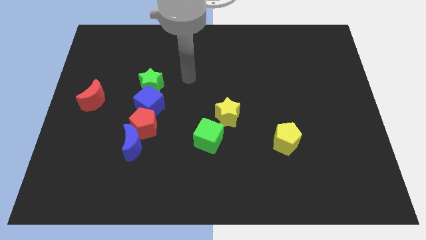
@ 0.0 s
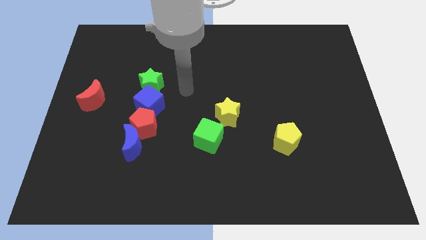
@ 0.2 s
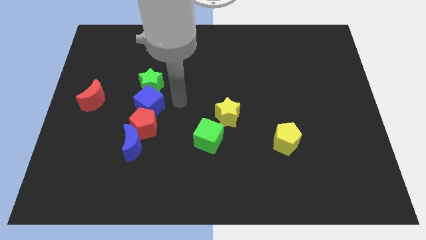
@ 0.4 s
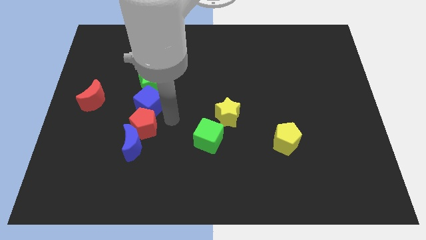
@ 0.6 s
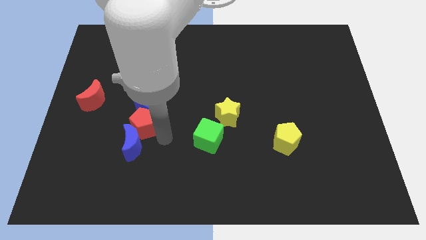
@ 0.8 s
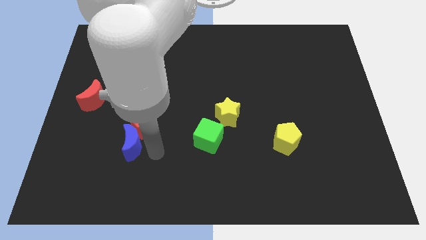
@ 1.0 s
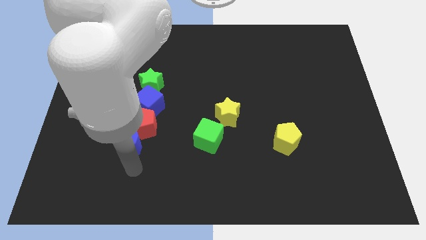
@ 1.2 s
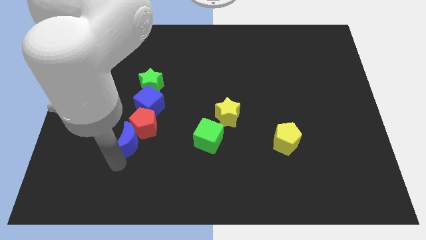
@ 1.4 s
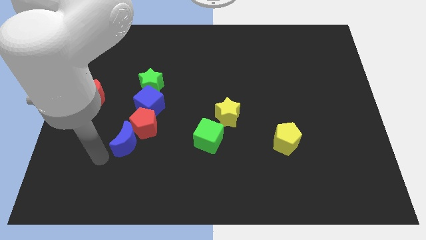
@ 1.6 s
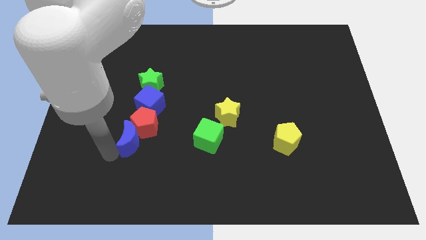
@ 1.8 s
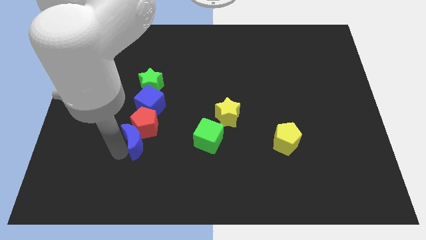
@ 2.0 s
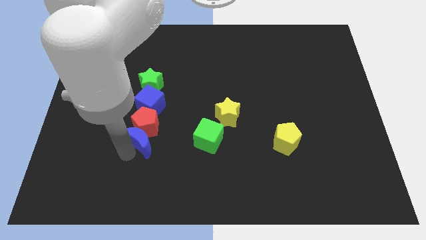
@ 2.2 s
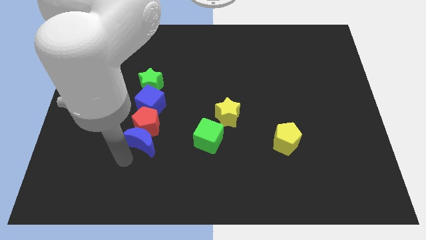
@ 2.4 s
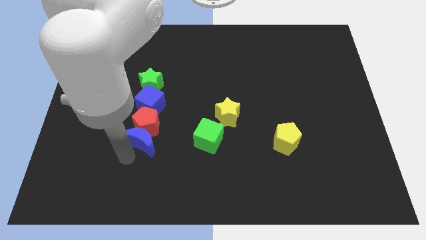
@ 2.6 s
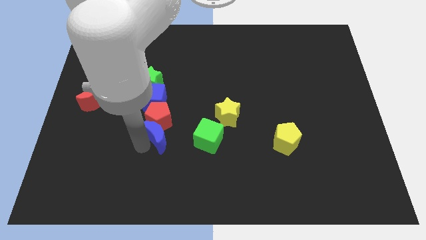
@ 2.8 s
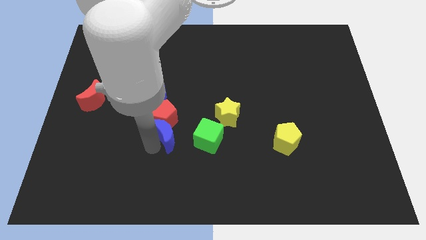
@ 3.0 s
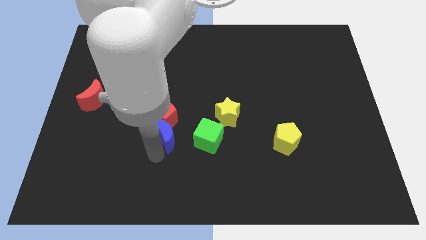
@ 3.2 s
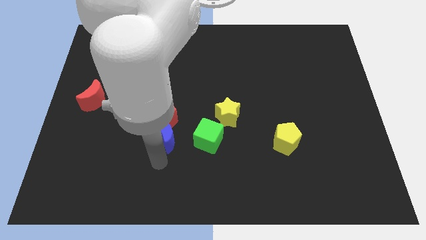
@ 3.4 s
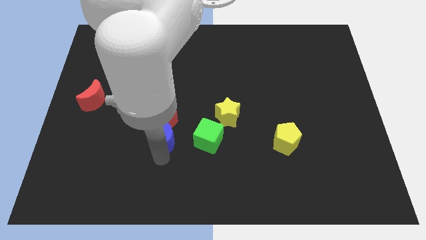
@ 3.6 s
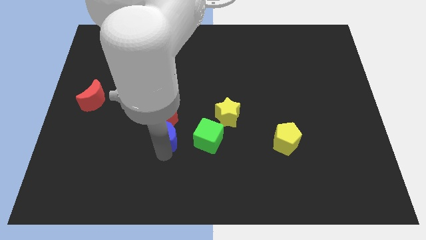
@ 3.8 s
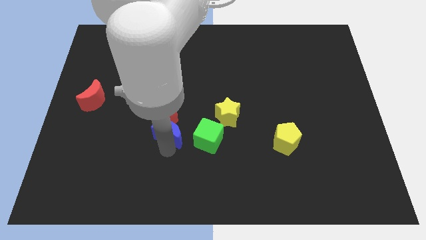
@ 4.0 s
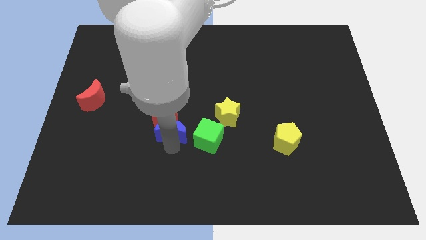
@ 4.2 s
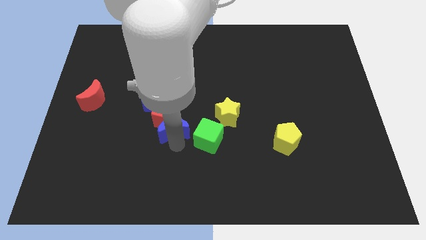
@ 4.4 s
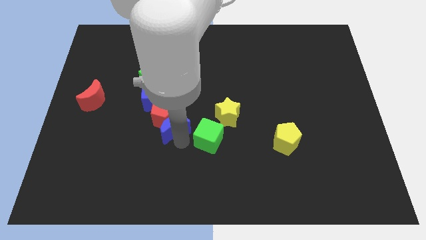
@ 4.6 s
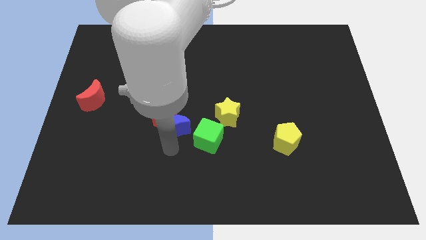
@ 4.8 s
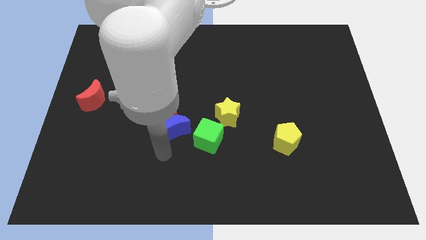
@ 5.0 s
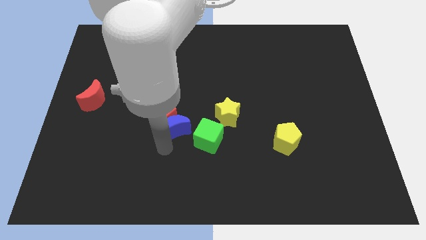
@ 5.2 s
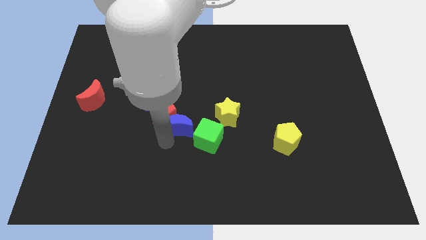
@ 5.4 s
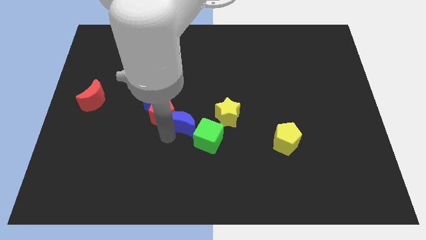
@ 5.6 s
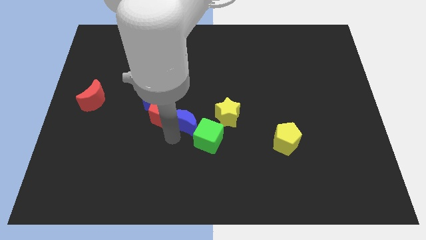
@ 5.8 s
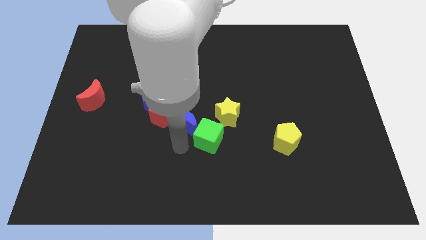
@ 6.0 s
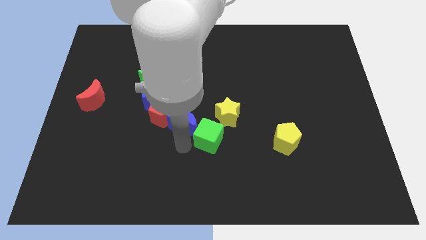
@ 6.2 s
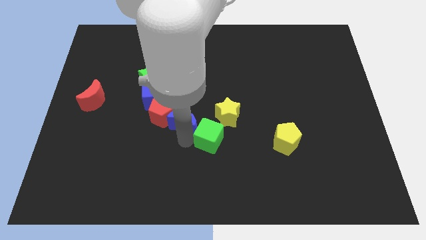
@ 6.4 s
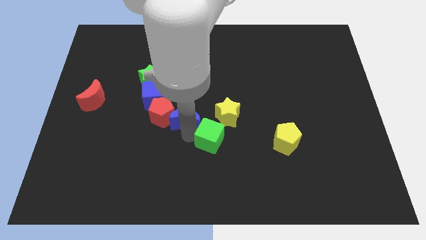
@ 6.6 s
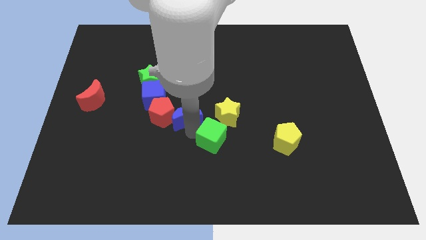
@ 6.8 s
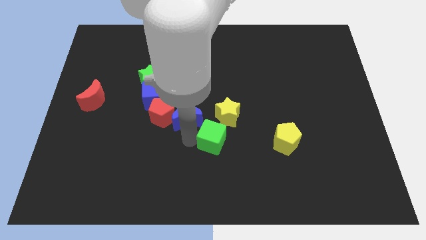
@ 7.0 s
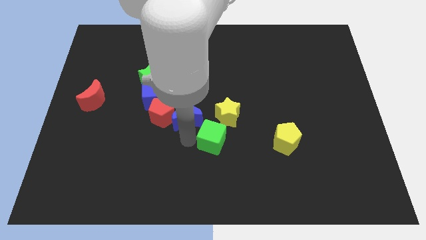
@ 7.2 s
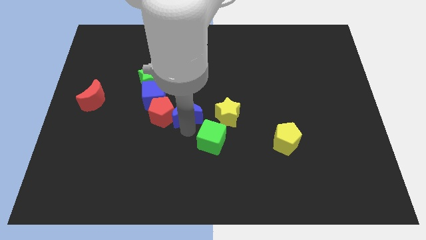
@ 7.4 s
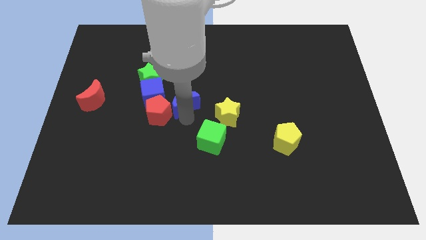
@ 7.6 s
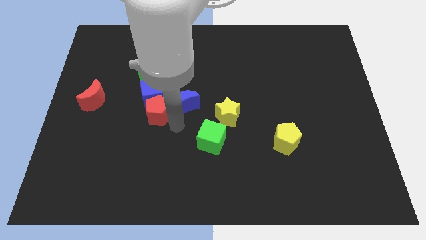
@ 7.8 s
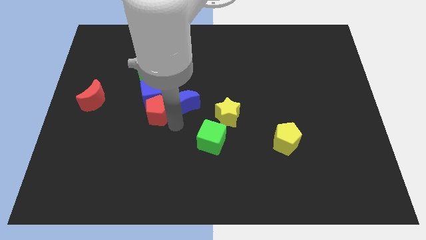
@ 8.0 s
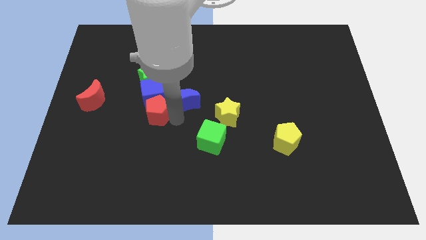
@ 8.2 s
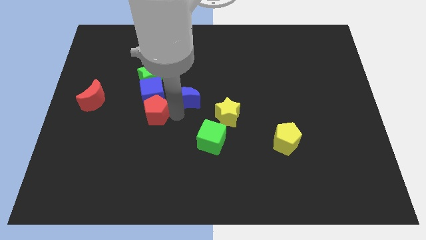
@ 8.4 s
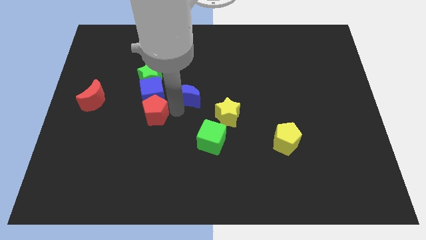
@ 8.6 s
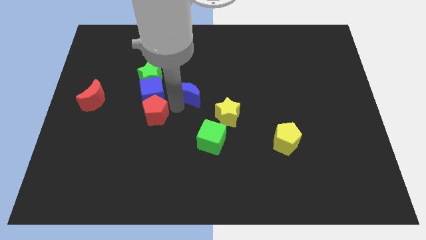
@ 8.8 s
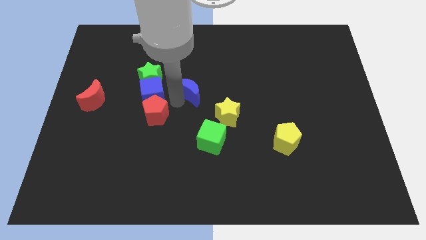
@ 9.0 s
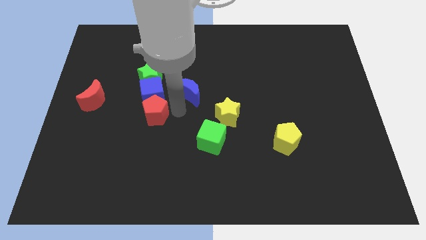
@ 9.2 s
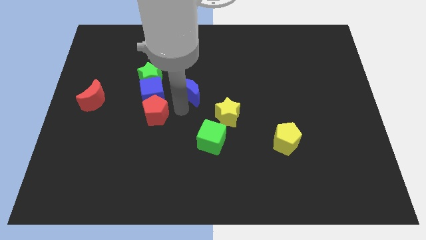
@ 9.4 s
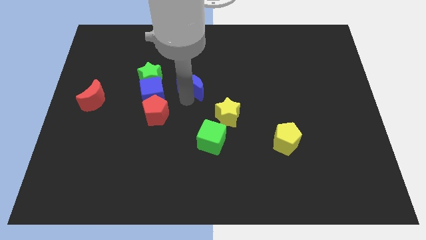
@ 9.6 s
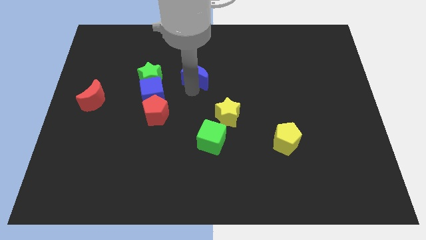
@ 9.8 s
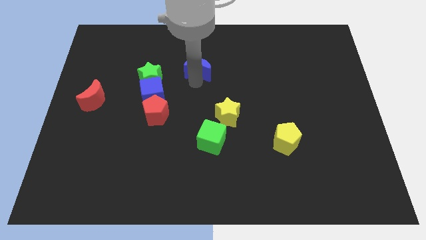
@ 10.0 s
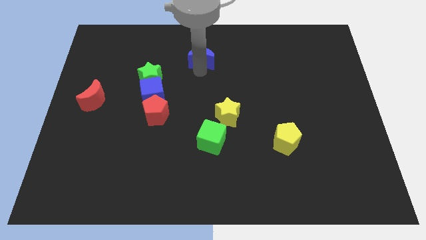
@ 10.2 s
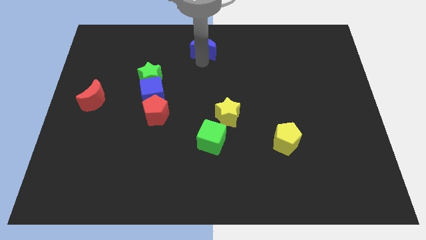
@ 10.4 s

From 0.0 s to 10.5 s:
push the blue moon to the top side

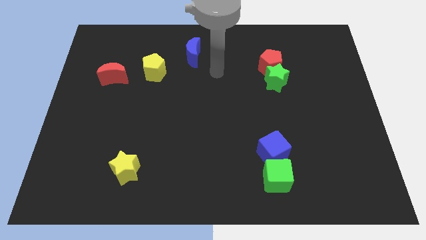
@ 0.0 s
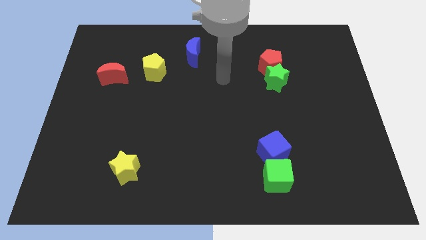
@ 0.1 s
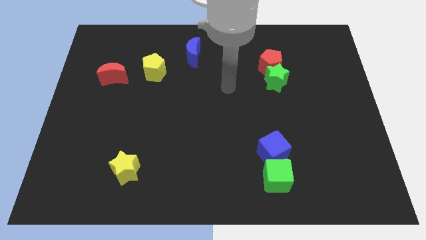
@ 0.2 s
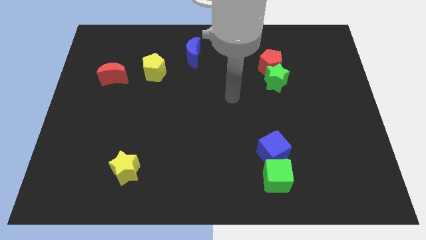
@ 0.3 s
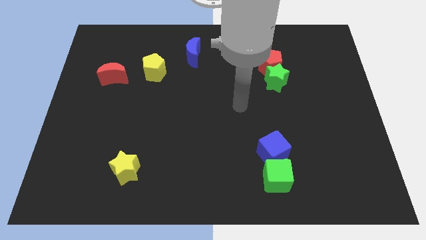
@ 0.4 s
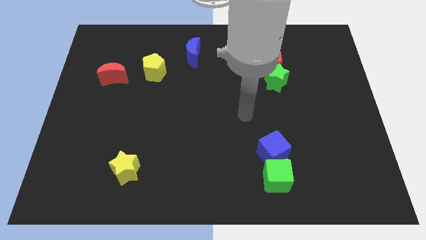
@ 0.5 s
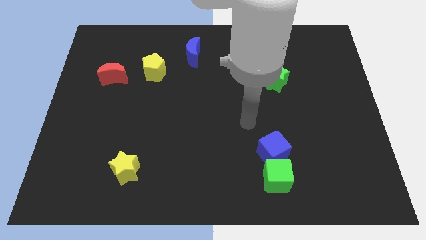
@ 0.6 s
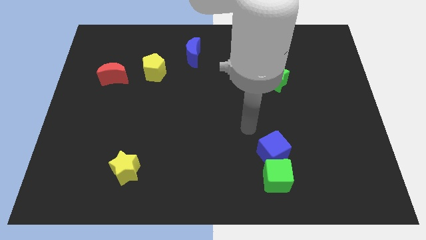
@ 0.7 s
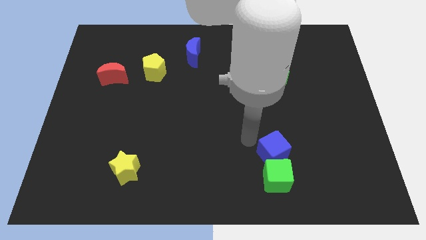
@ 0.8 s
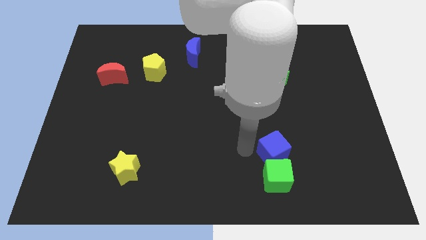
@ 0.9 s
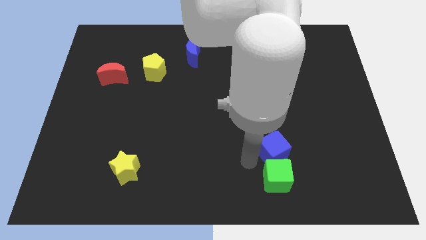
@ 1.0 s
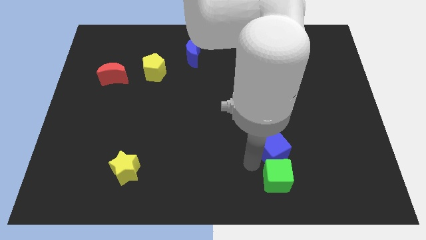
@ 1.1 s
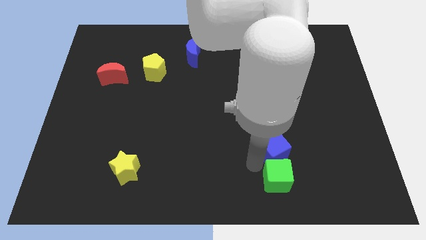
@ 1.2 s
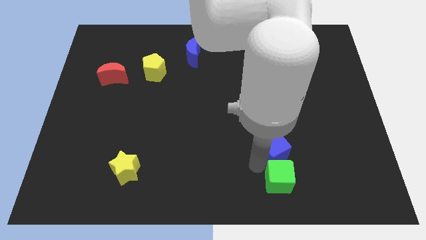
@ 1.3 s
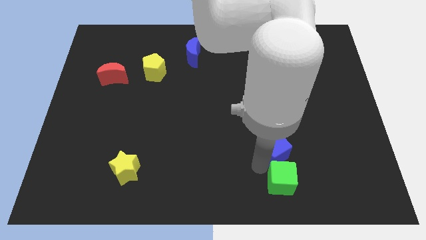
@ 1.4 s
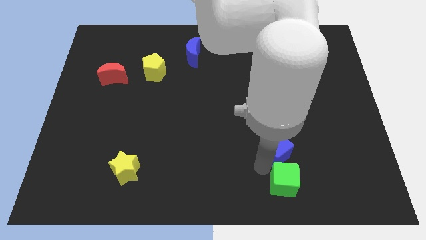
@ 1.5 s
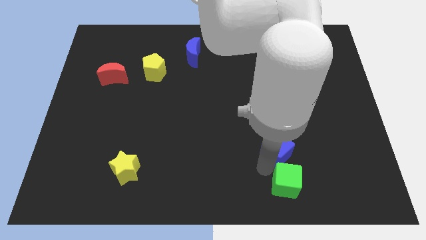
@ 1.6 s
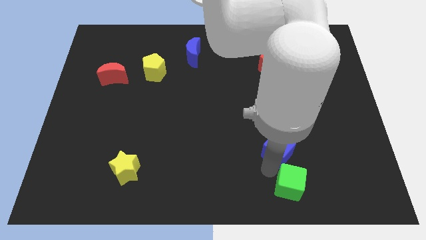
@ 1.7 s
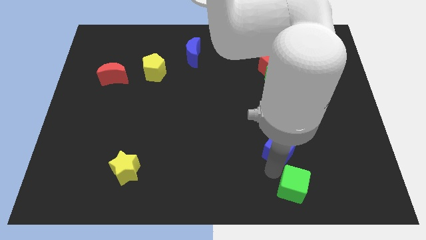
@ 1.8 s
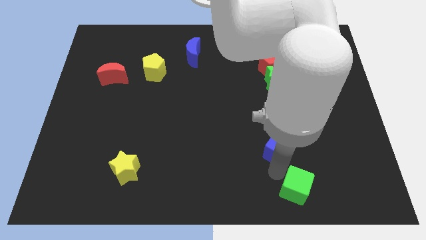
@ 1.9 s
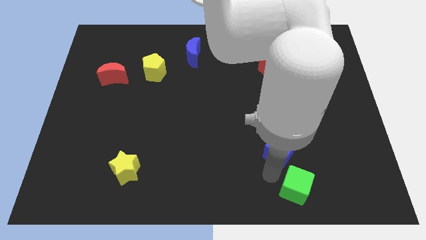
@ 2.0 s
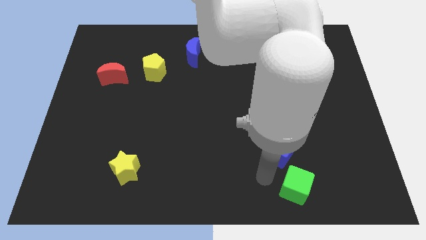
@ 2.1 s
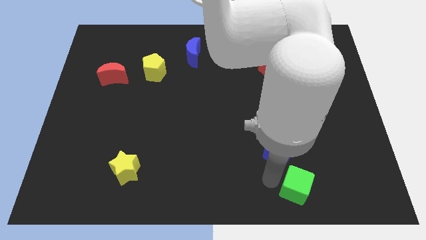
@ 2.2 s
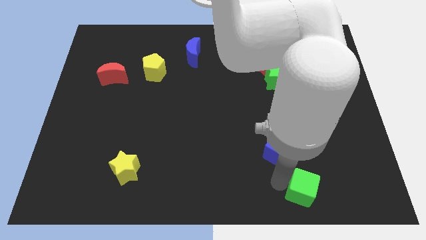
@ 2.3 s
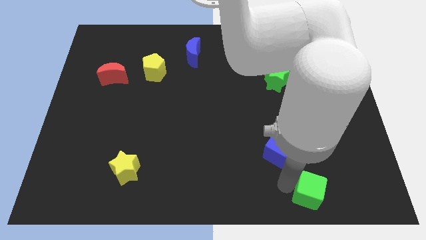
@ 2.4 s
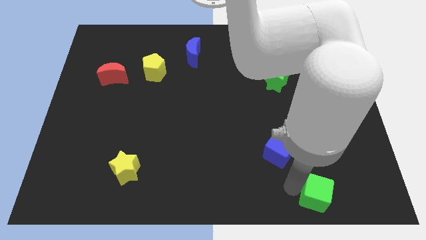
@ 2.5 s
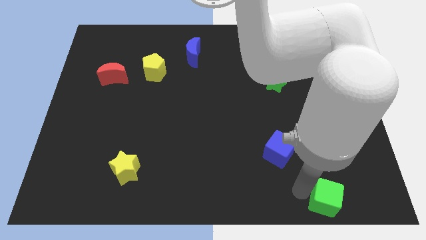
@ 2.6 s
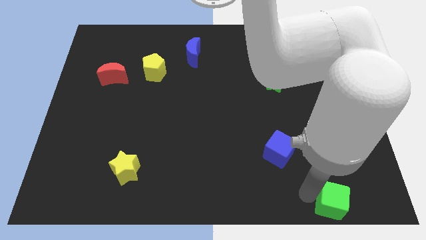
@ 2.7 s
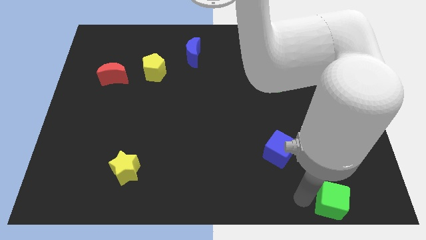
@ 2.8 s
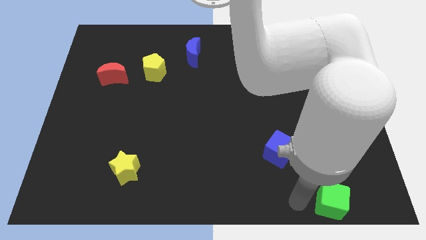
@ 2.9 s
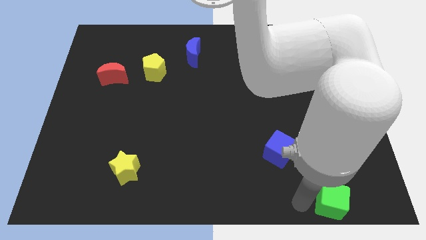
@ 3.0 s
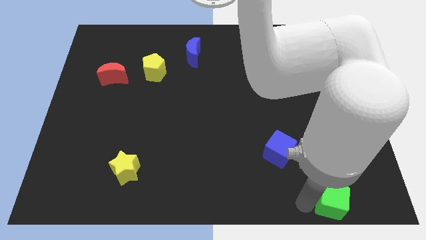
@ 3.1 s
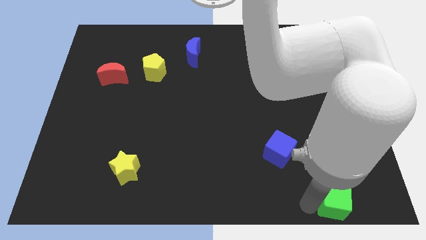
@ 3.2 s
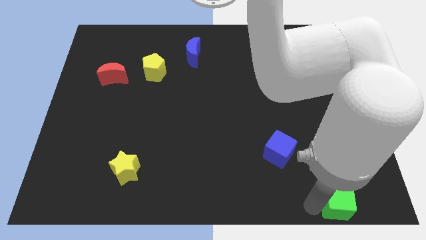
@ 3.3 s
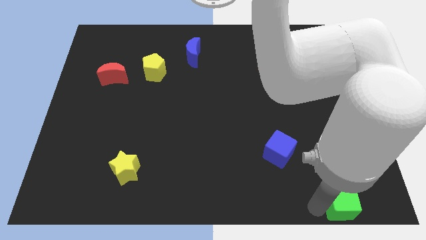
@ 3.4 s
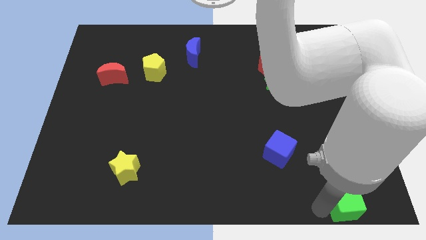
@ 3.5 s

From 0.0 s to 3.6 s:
put the green cube to the bottom right corner
